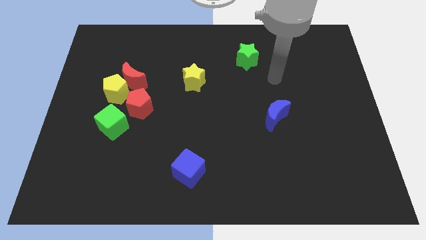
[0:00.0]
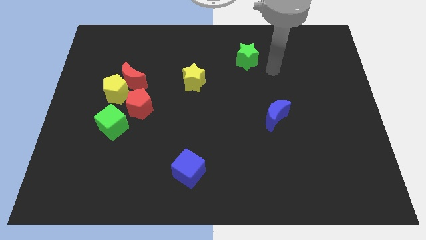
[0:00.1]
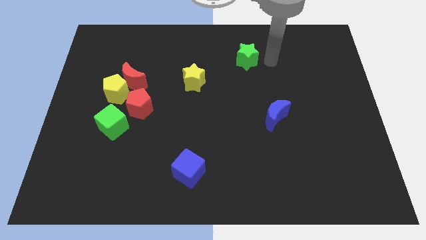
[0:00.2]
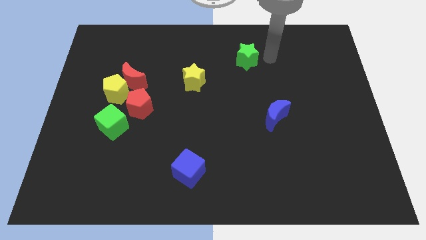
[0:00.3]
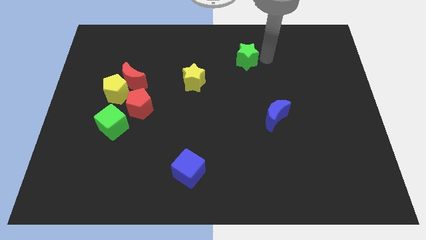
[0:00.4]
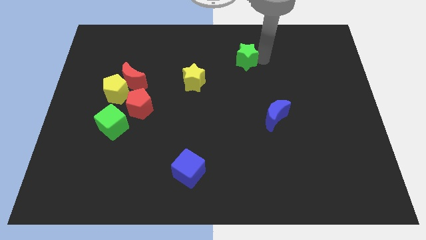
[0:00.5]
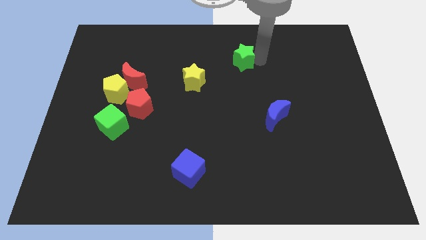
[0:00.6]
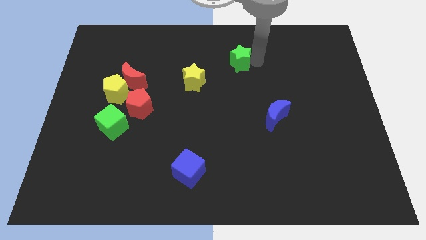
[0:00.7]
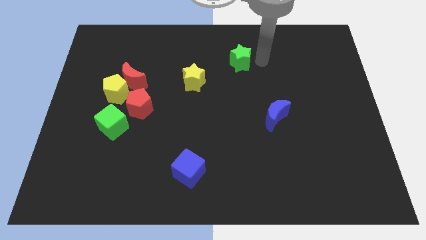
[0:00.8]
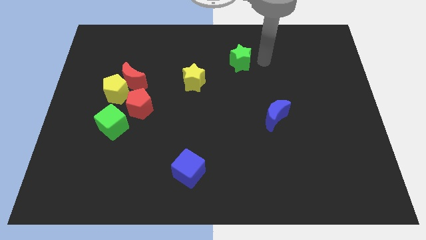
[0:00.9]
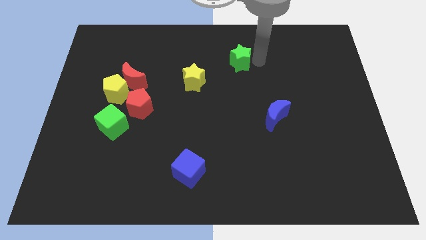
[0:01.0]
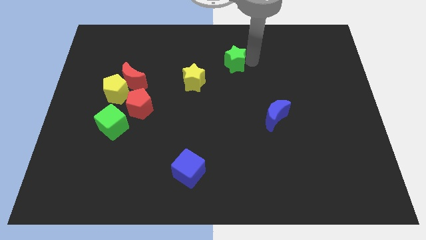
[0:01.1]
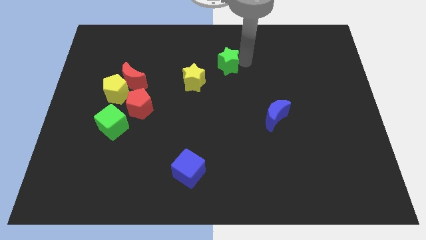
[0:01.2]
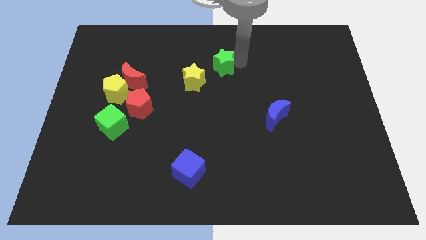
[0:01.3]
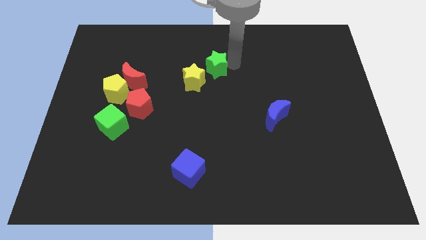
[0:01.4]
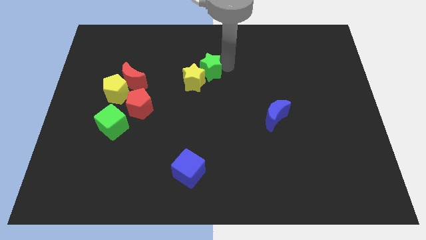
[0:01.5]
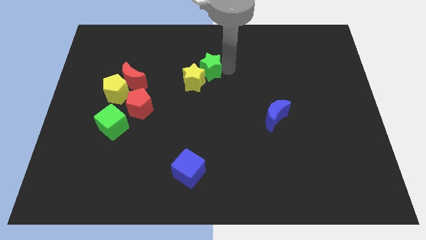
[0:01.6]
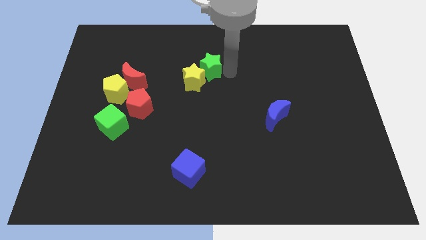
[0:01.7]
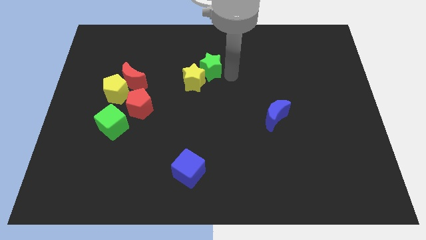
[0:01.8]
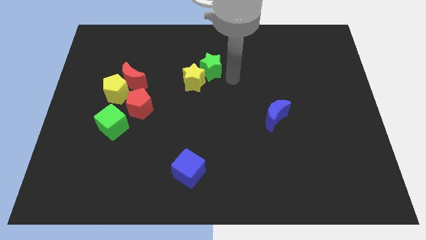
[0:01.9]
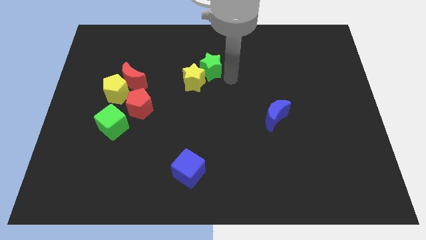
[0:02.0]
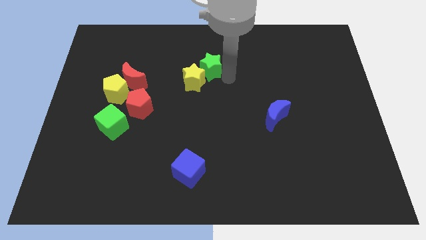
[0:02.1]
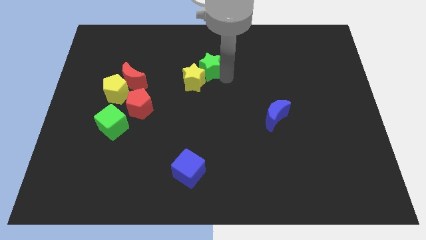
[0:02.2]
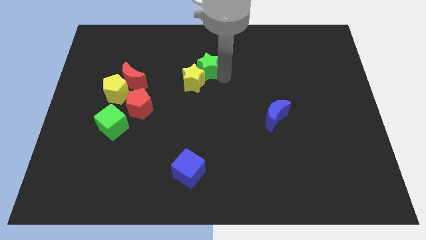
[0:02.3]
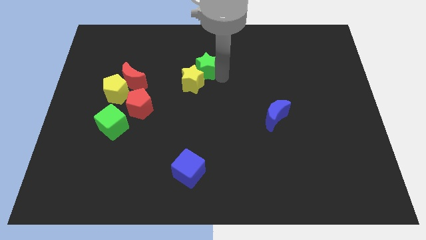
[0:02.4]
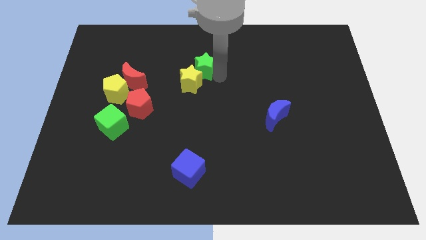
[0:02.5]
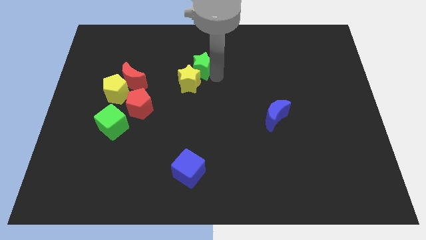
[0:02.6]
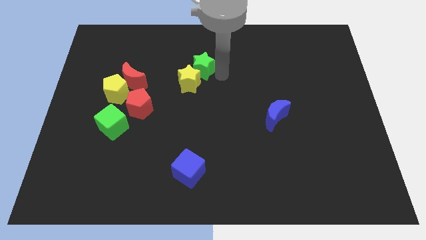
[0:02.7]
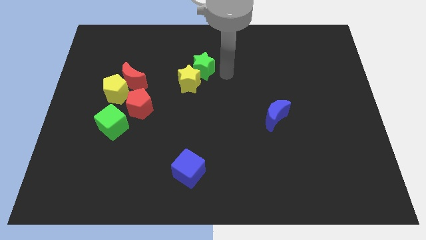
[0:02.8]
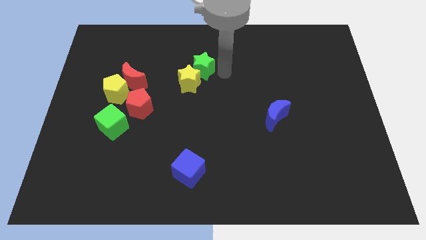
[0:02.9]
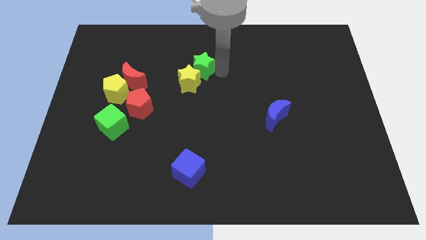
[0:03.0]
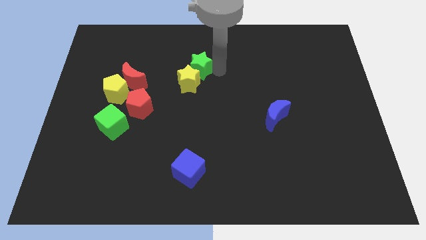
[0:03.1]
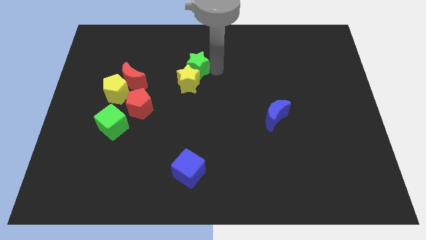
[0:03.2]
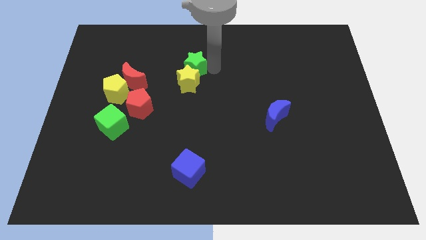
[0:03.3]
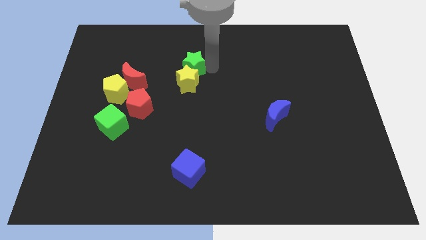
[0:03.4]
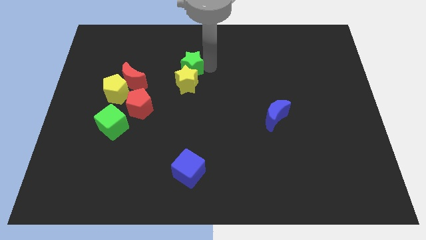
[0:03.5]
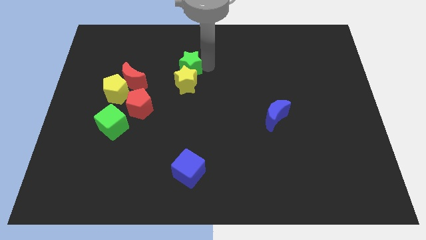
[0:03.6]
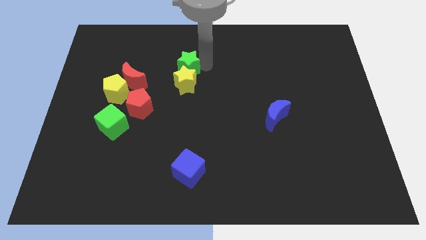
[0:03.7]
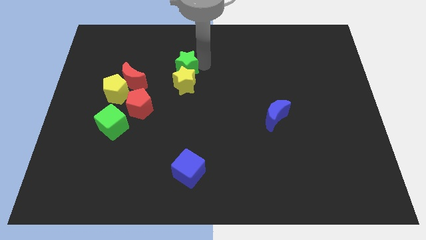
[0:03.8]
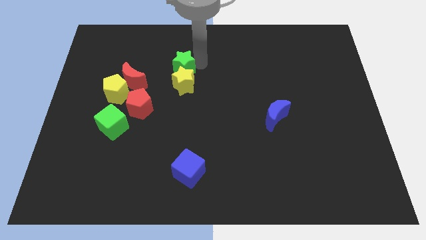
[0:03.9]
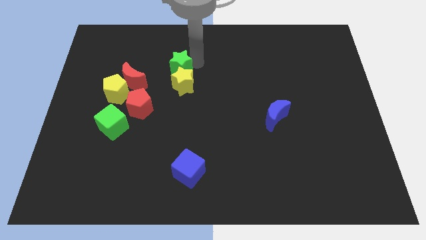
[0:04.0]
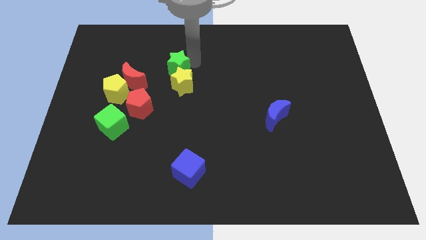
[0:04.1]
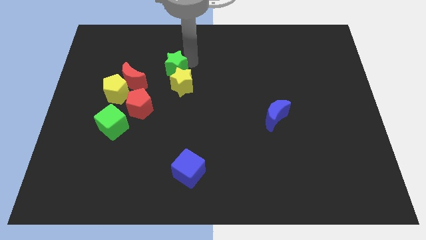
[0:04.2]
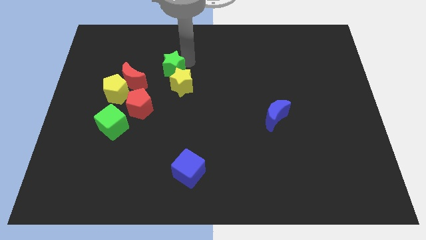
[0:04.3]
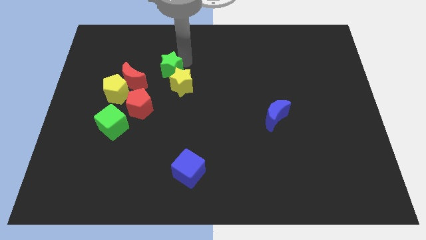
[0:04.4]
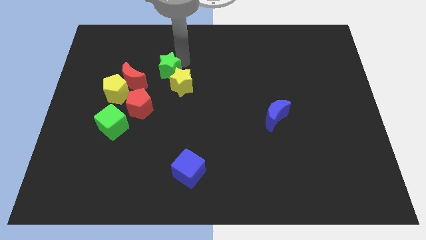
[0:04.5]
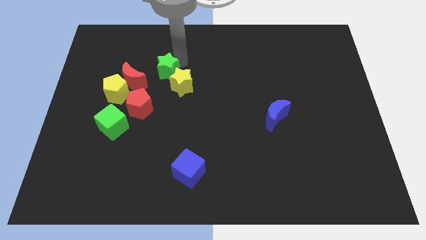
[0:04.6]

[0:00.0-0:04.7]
slide the green star to the left

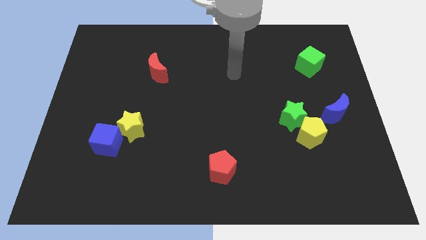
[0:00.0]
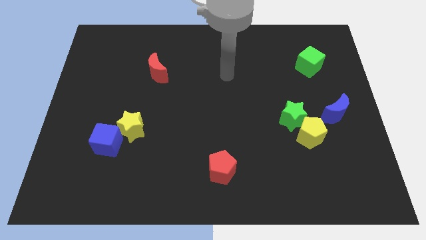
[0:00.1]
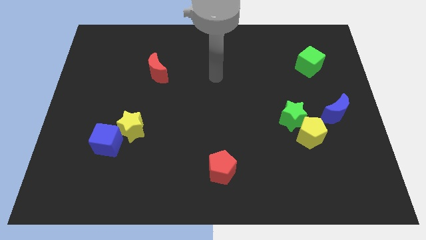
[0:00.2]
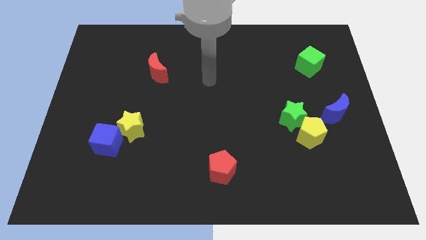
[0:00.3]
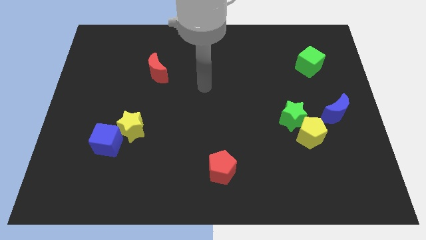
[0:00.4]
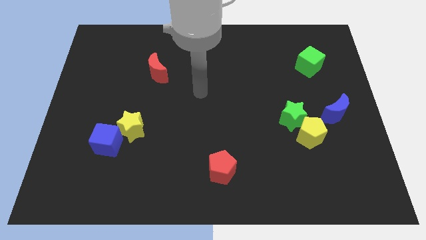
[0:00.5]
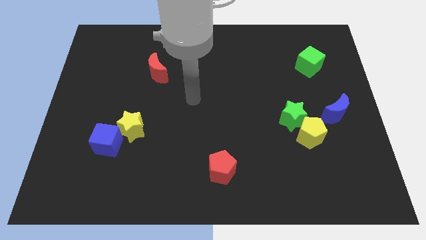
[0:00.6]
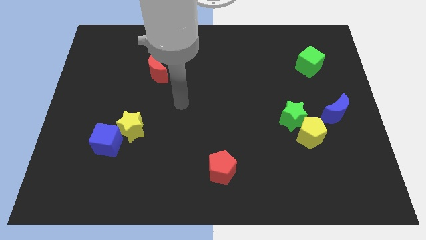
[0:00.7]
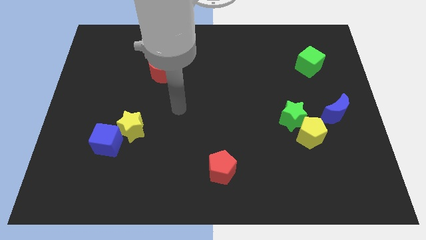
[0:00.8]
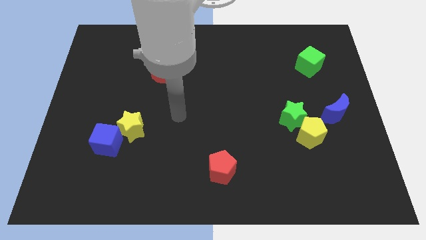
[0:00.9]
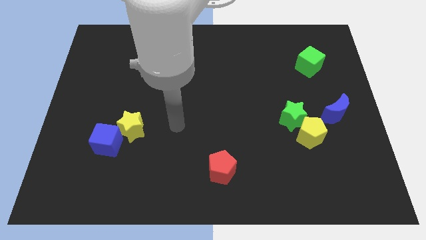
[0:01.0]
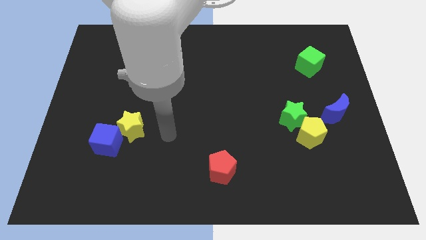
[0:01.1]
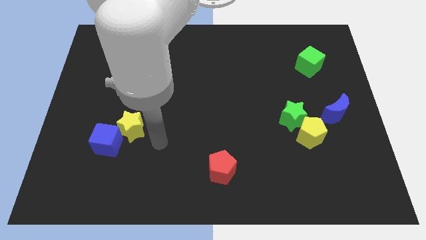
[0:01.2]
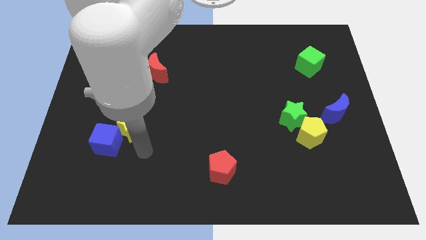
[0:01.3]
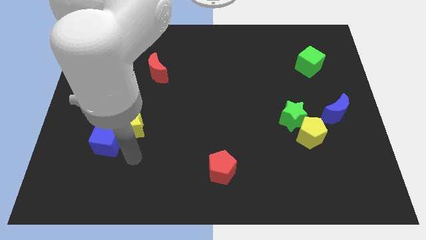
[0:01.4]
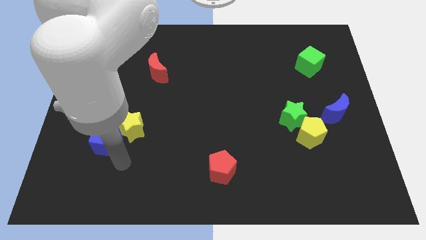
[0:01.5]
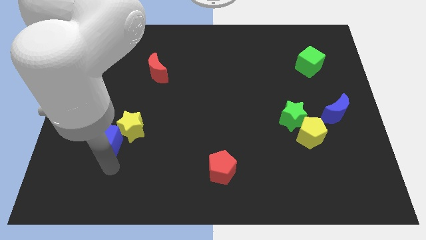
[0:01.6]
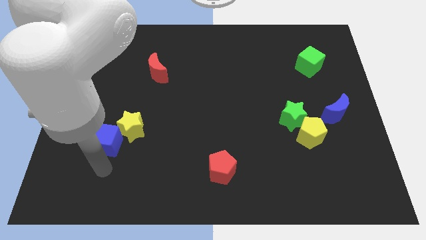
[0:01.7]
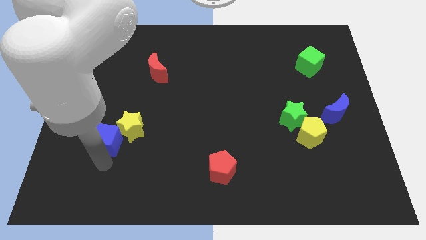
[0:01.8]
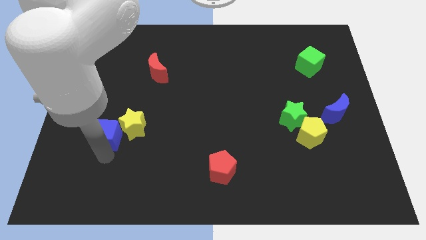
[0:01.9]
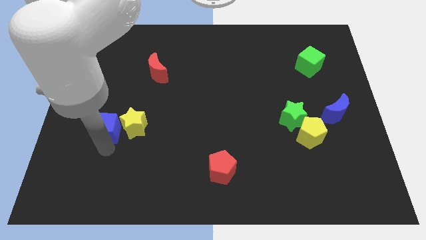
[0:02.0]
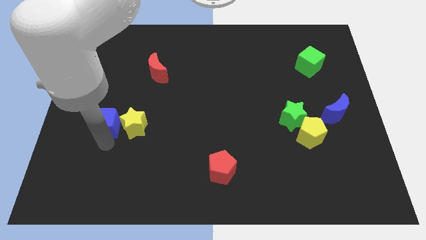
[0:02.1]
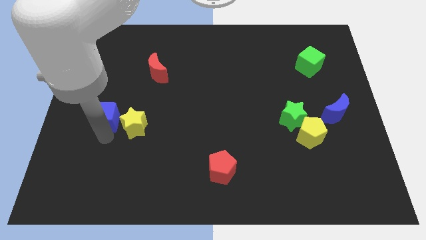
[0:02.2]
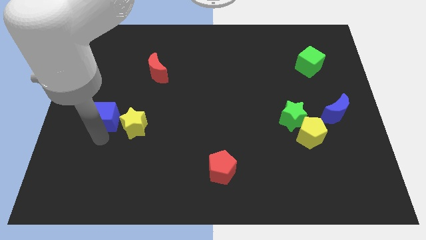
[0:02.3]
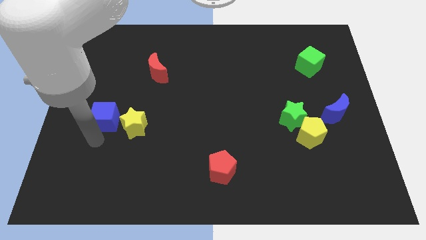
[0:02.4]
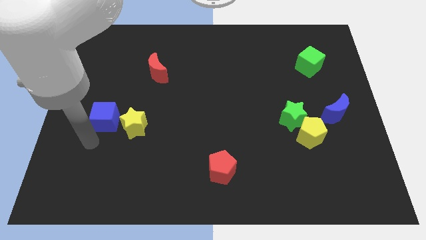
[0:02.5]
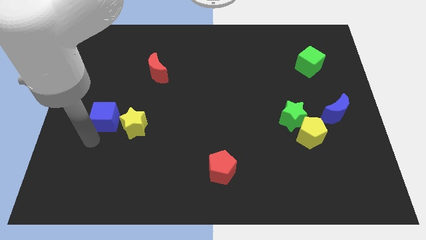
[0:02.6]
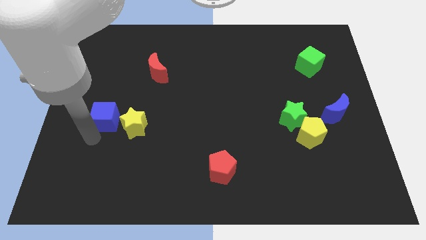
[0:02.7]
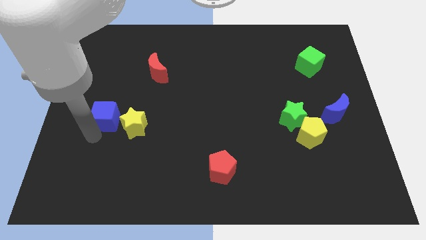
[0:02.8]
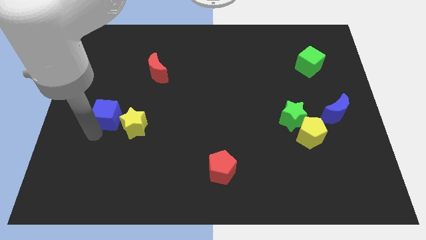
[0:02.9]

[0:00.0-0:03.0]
push the blue cube upwards a little

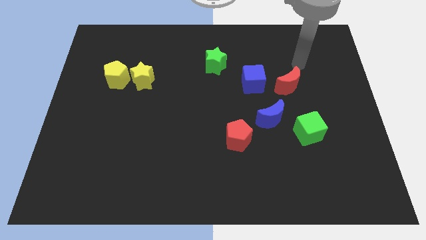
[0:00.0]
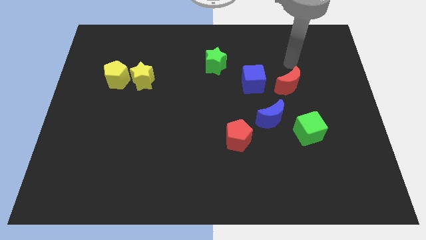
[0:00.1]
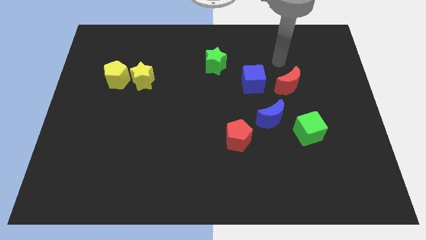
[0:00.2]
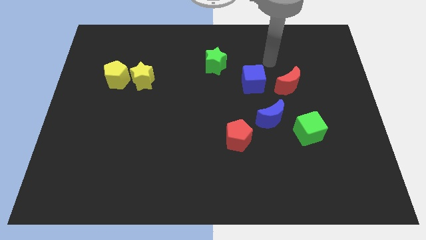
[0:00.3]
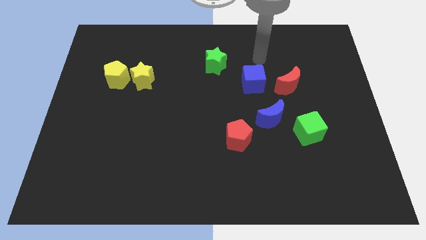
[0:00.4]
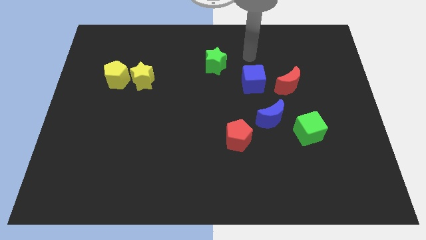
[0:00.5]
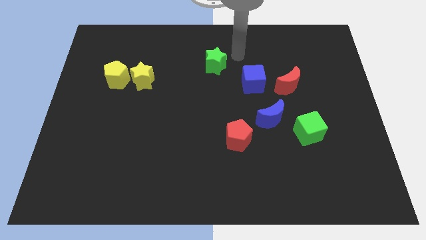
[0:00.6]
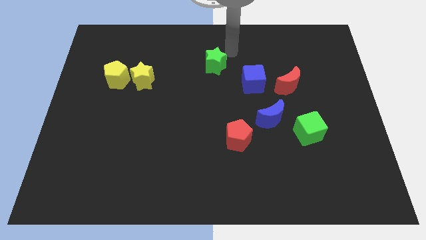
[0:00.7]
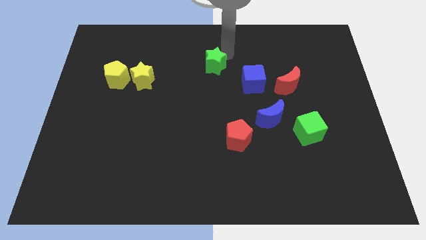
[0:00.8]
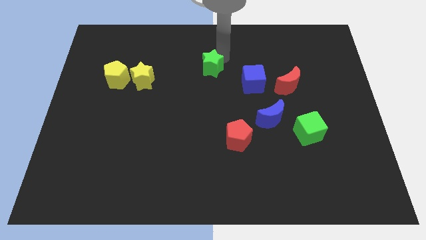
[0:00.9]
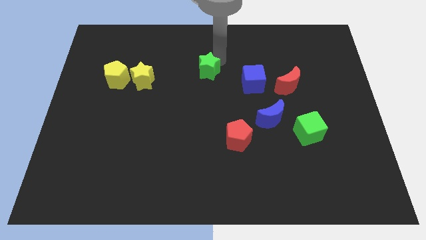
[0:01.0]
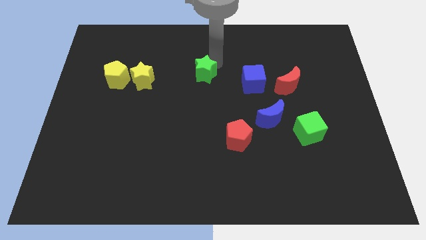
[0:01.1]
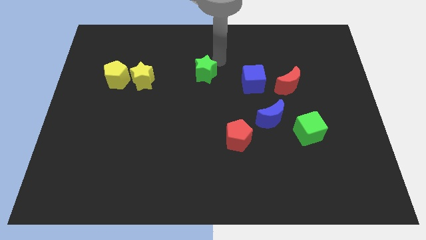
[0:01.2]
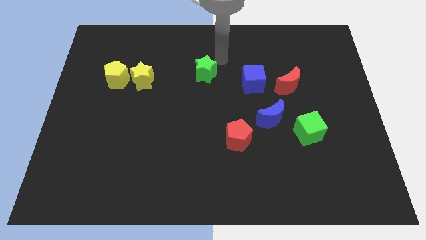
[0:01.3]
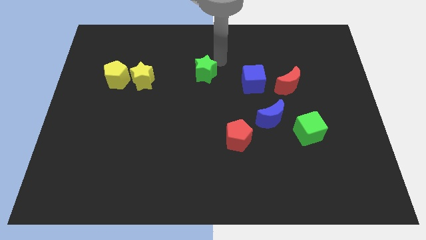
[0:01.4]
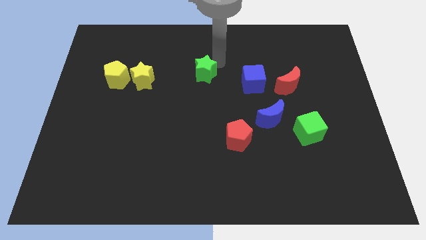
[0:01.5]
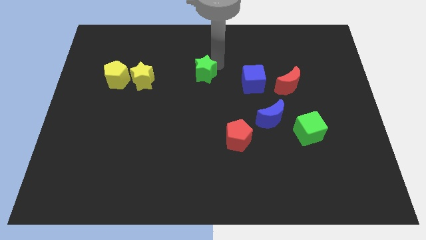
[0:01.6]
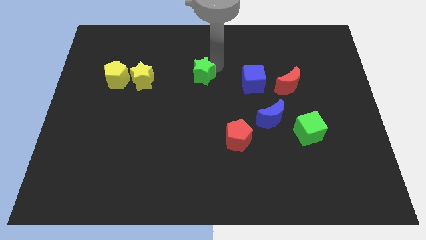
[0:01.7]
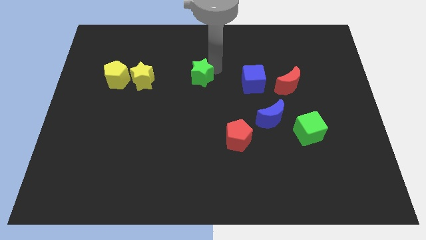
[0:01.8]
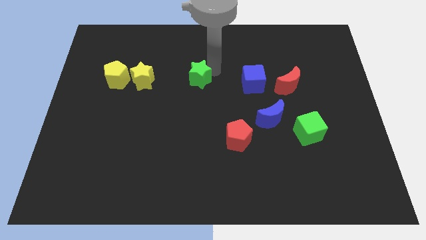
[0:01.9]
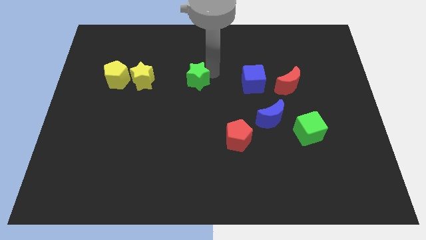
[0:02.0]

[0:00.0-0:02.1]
slightly slide the green star down and then to the left
